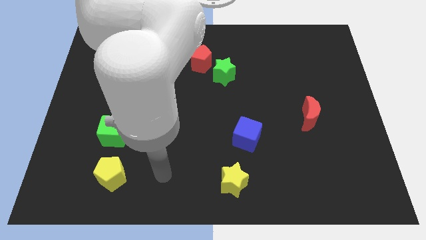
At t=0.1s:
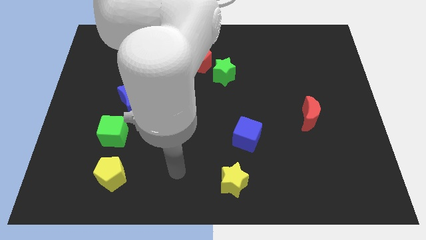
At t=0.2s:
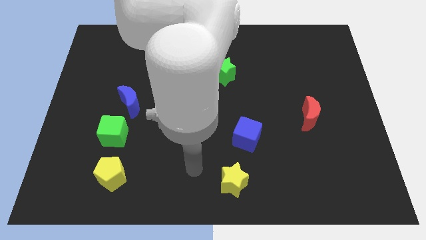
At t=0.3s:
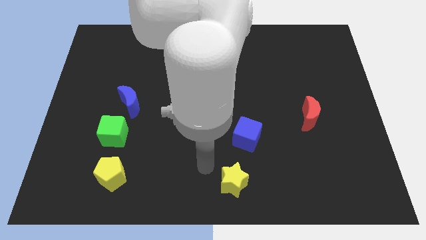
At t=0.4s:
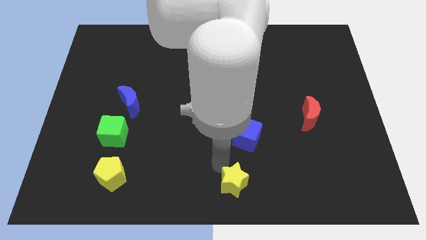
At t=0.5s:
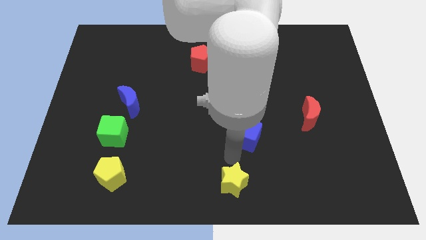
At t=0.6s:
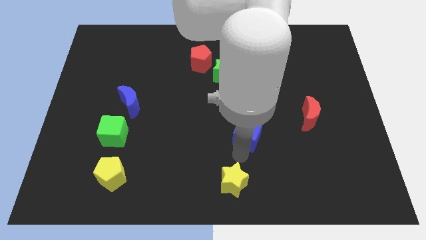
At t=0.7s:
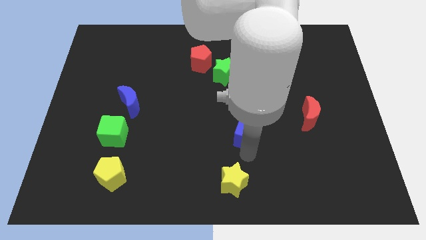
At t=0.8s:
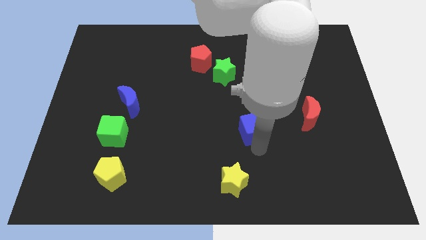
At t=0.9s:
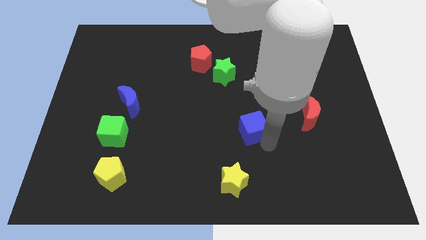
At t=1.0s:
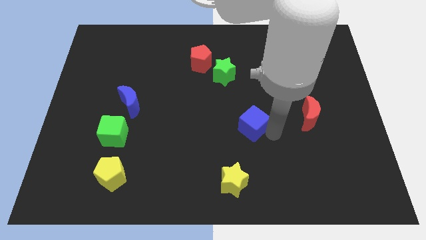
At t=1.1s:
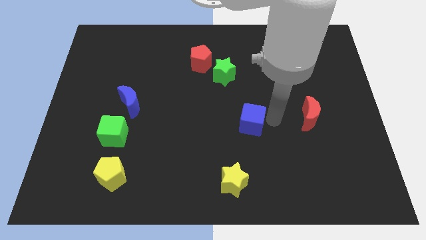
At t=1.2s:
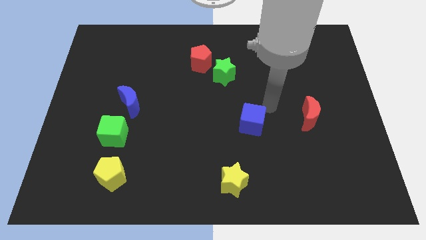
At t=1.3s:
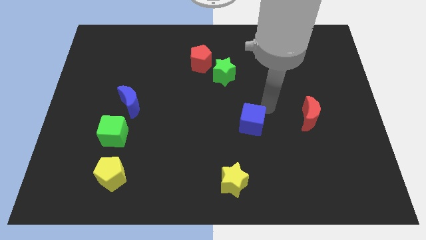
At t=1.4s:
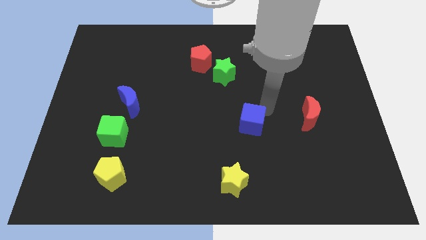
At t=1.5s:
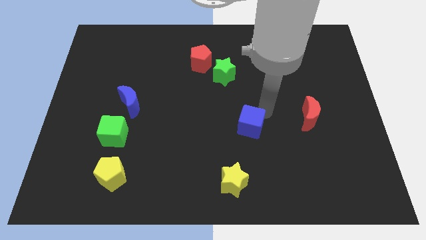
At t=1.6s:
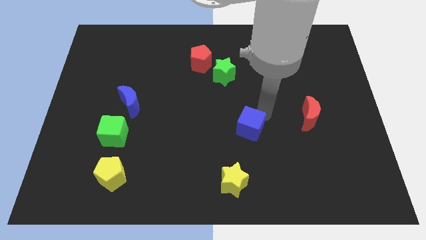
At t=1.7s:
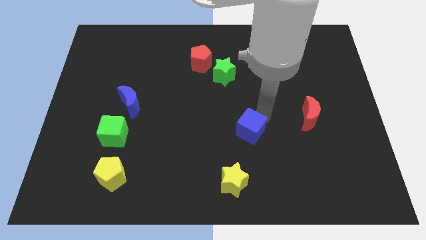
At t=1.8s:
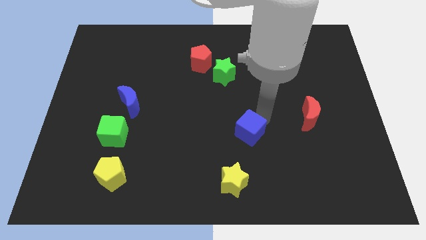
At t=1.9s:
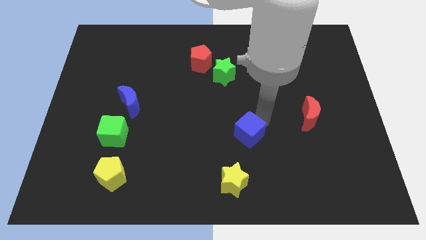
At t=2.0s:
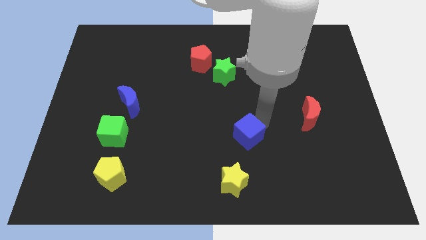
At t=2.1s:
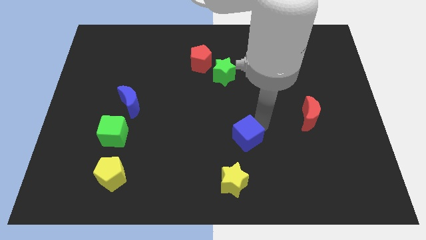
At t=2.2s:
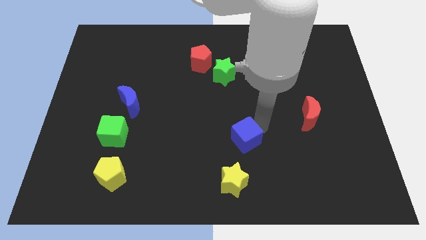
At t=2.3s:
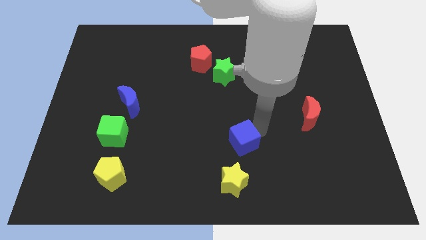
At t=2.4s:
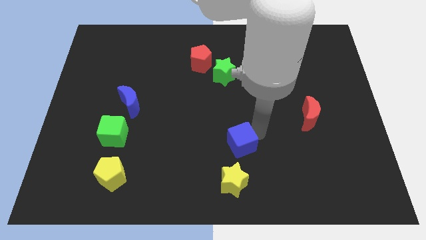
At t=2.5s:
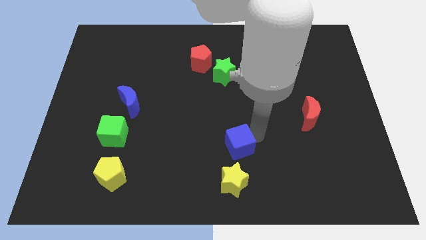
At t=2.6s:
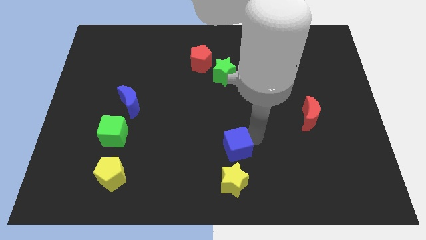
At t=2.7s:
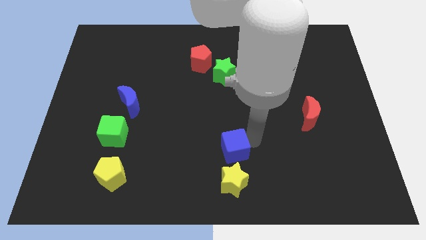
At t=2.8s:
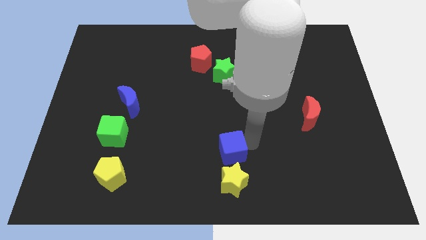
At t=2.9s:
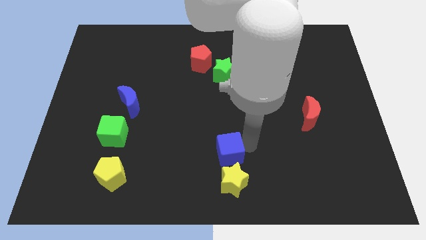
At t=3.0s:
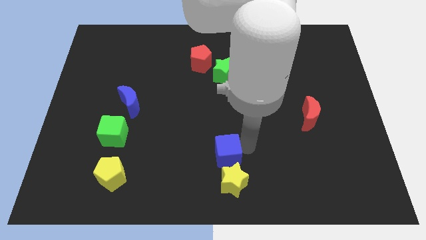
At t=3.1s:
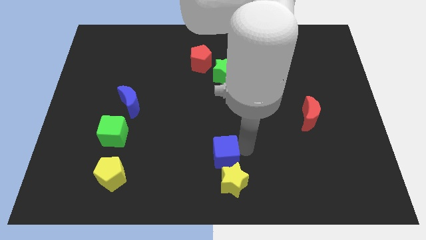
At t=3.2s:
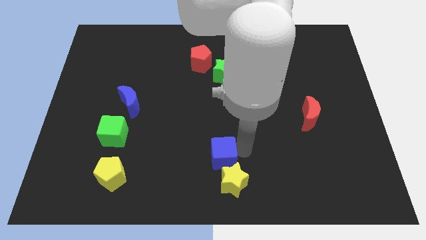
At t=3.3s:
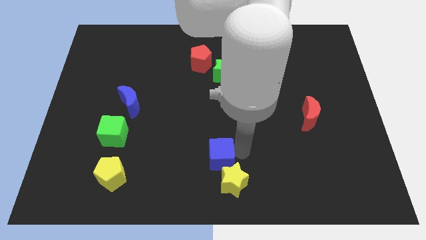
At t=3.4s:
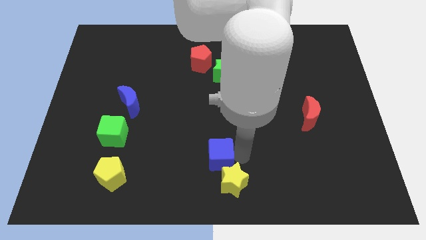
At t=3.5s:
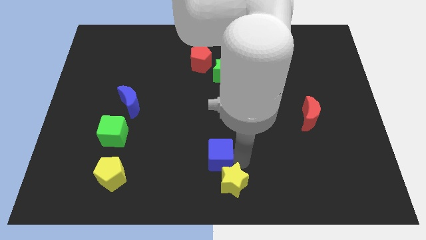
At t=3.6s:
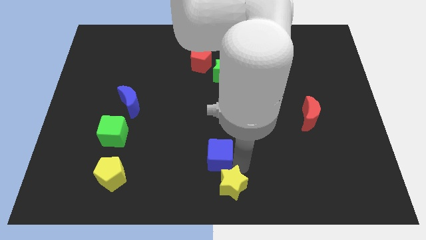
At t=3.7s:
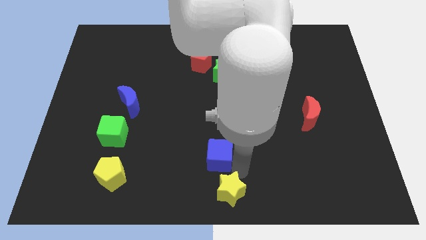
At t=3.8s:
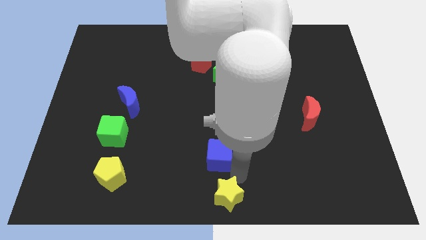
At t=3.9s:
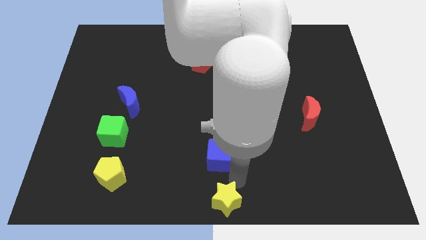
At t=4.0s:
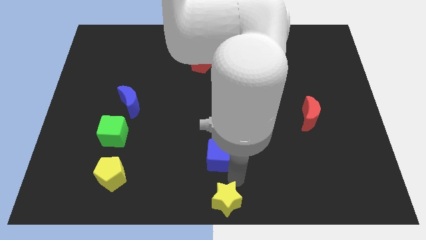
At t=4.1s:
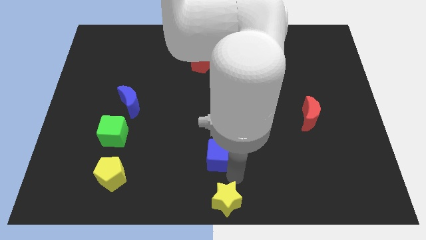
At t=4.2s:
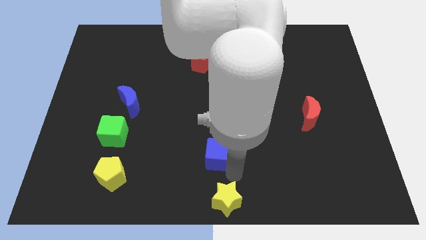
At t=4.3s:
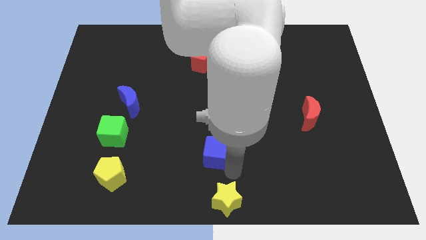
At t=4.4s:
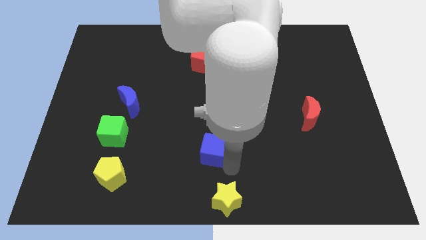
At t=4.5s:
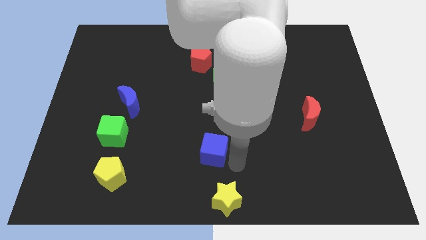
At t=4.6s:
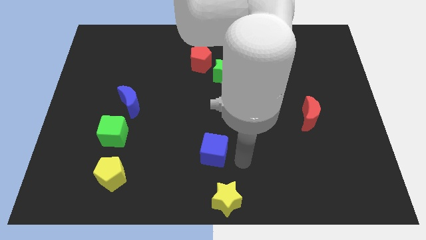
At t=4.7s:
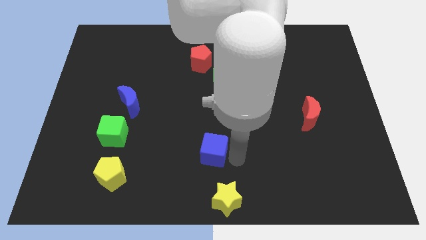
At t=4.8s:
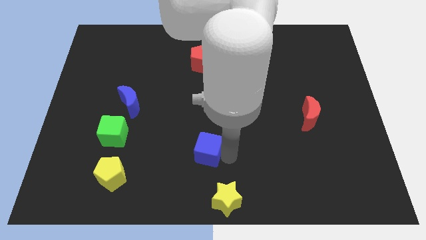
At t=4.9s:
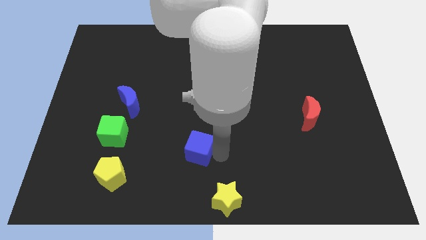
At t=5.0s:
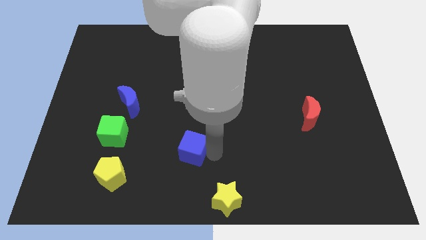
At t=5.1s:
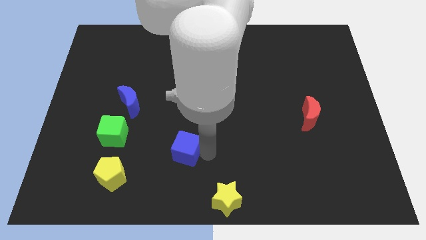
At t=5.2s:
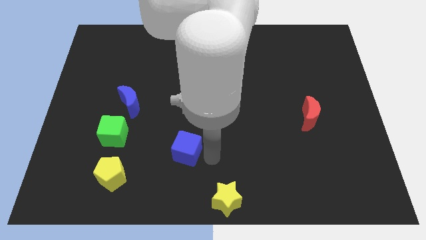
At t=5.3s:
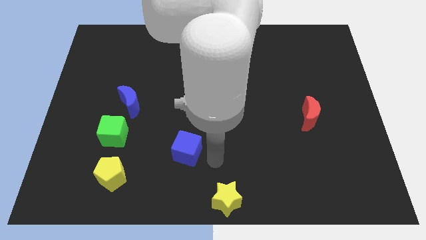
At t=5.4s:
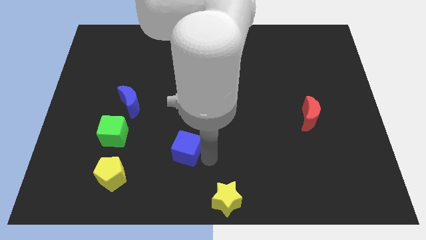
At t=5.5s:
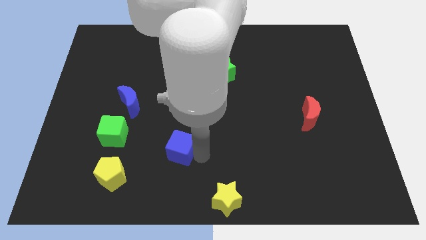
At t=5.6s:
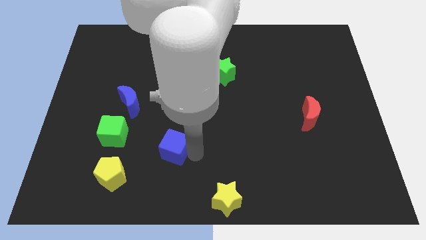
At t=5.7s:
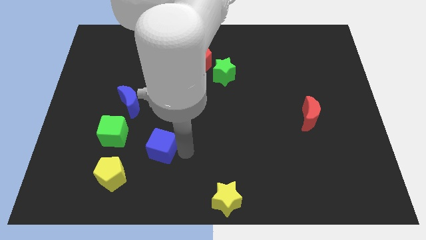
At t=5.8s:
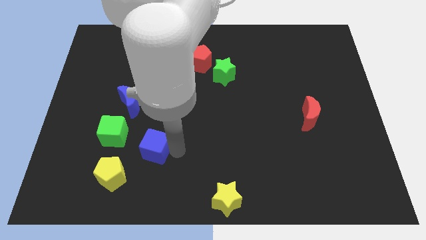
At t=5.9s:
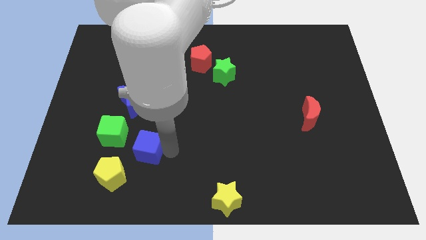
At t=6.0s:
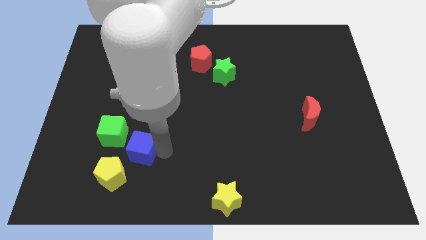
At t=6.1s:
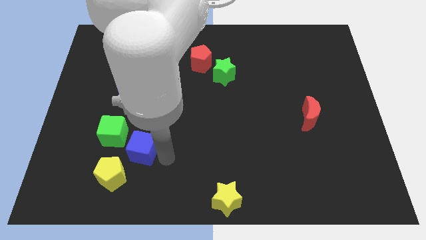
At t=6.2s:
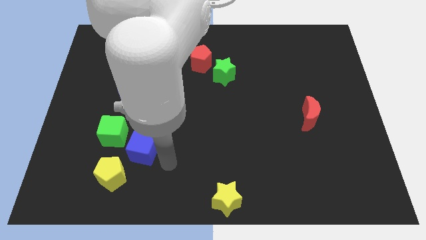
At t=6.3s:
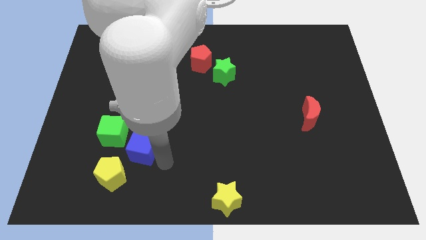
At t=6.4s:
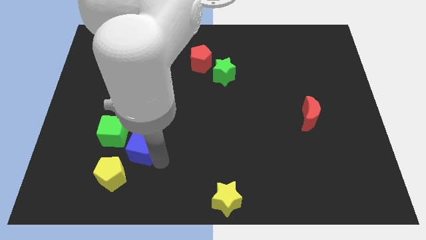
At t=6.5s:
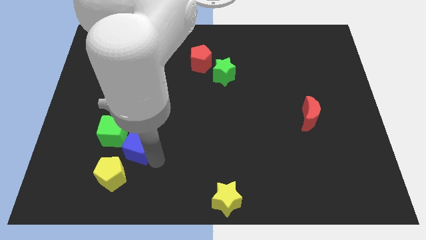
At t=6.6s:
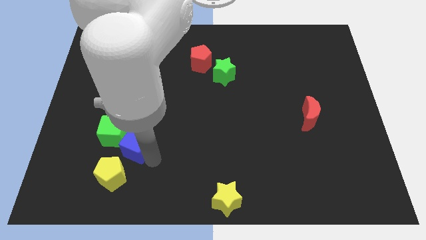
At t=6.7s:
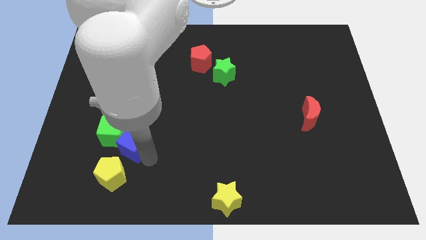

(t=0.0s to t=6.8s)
put the blue cube to the green cube

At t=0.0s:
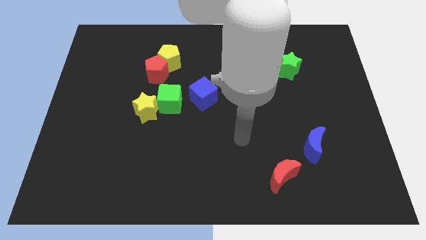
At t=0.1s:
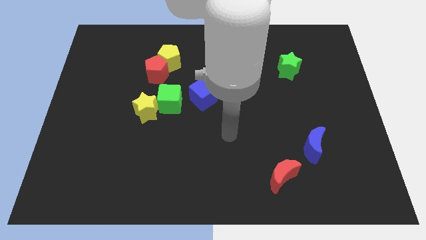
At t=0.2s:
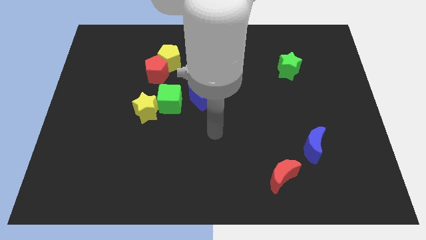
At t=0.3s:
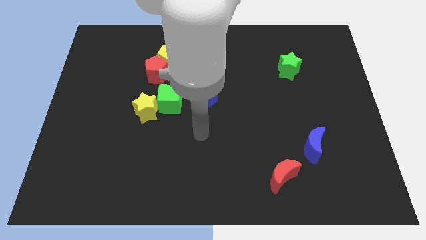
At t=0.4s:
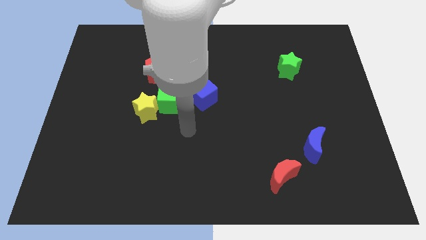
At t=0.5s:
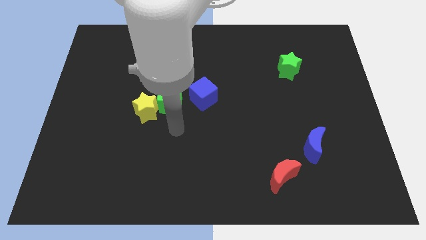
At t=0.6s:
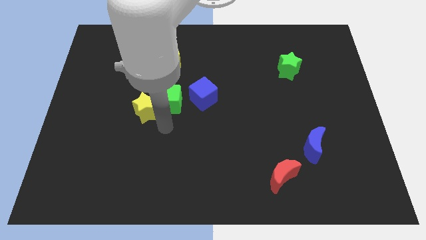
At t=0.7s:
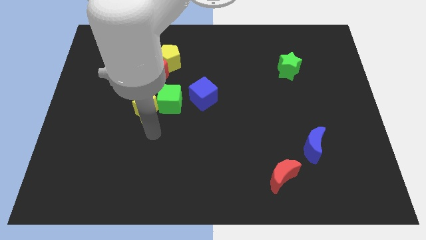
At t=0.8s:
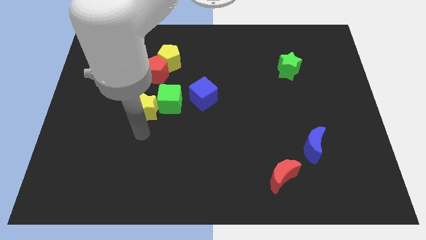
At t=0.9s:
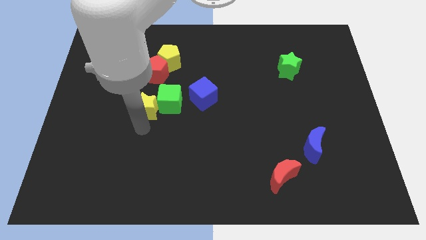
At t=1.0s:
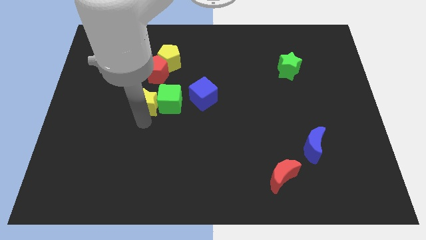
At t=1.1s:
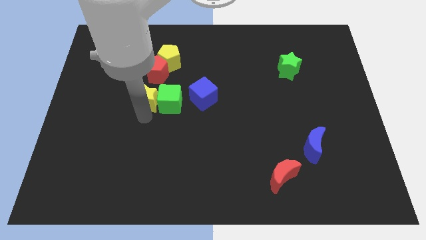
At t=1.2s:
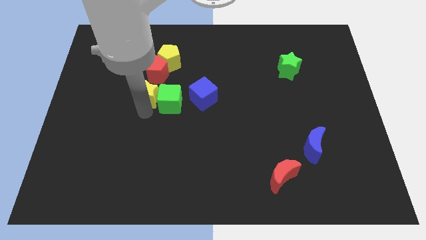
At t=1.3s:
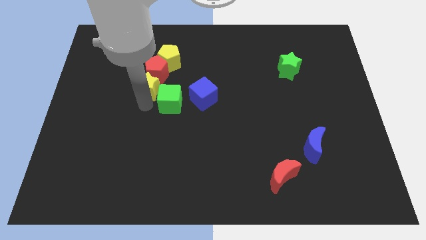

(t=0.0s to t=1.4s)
put the yellow star towards the red pentagon
